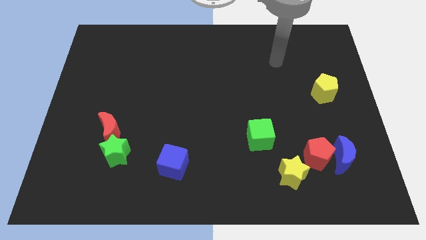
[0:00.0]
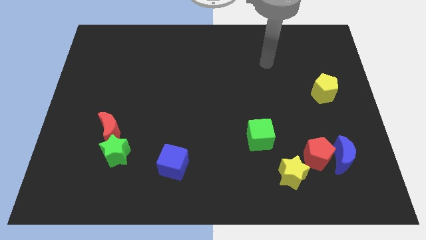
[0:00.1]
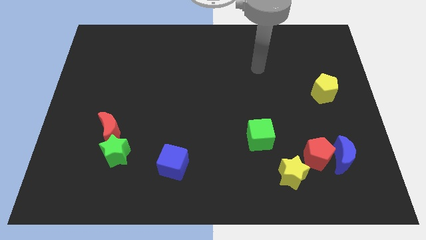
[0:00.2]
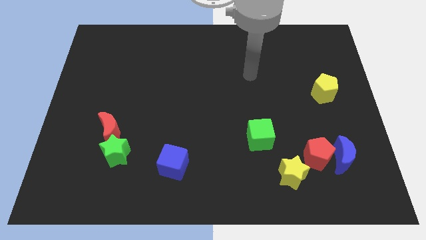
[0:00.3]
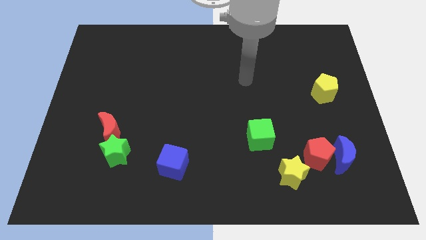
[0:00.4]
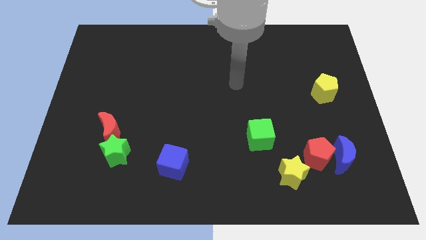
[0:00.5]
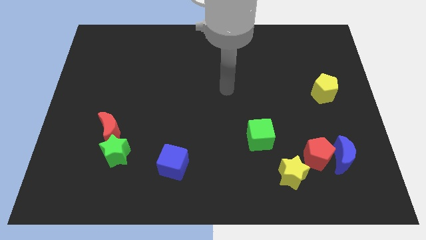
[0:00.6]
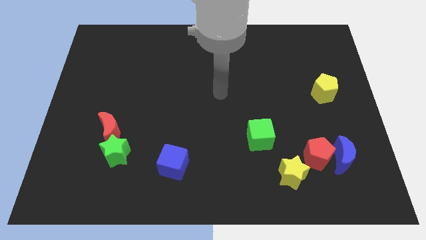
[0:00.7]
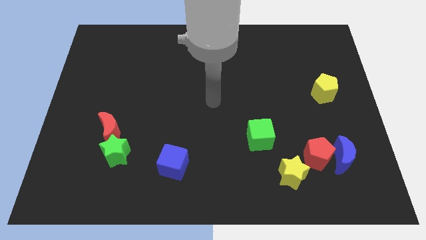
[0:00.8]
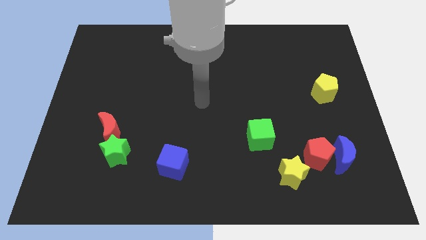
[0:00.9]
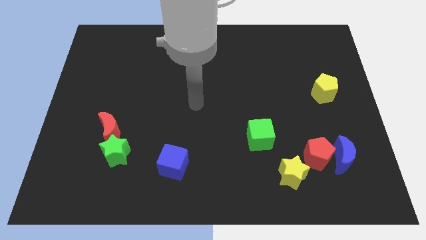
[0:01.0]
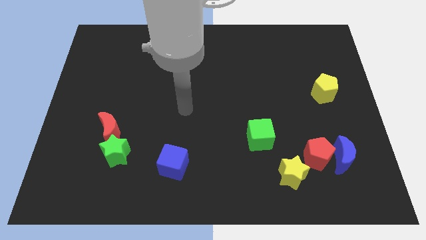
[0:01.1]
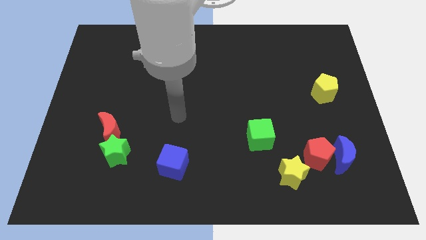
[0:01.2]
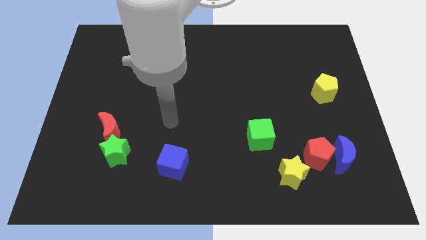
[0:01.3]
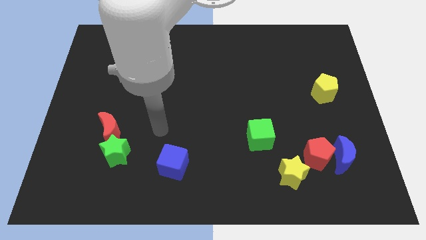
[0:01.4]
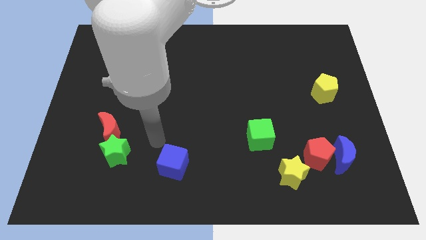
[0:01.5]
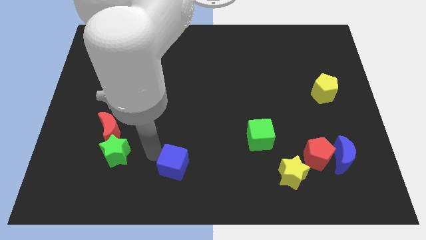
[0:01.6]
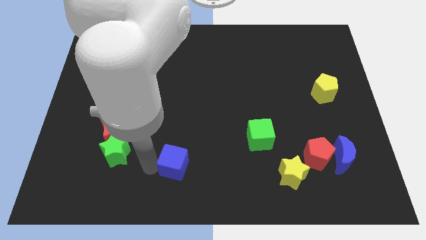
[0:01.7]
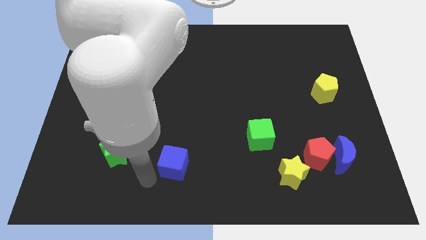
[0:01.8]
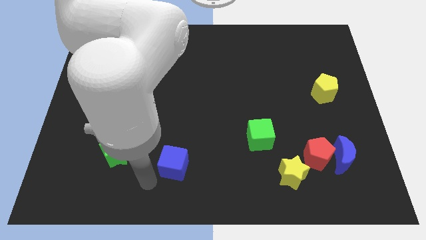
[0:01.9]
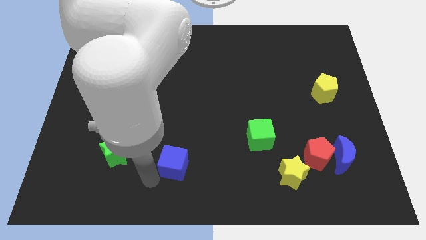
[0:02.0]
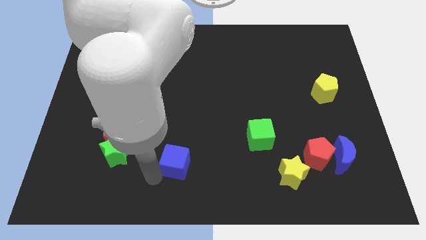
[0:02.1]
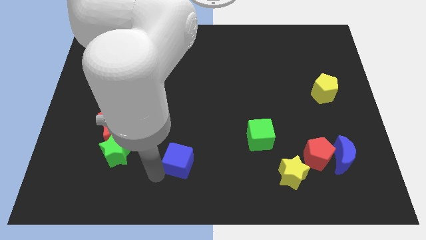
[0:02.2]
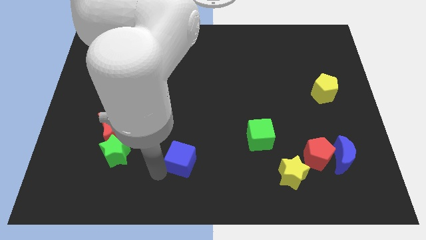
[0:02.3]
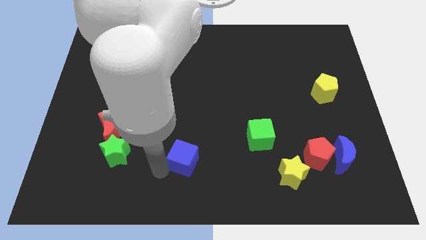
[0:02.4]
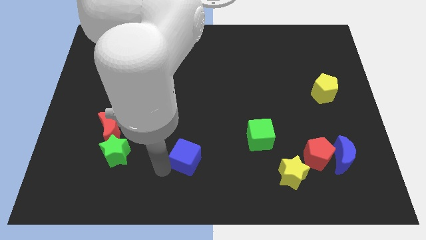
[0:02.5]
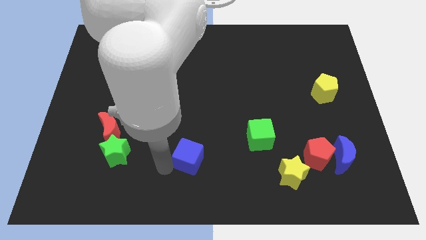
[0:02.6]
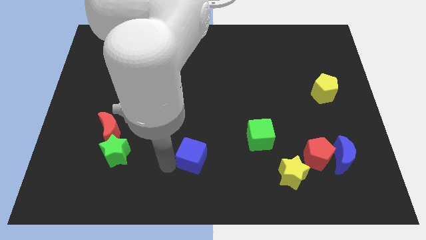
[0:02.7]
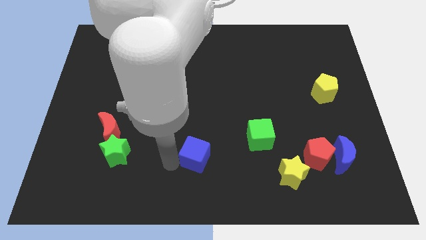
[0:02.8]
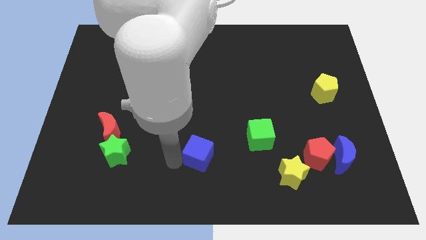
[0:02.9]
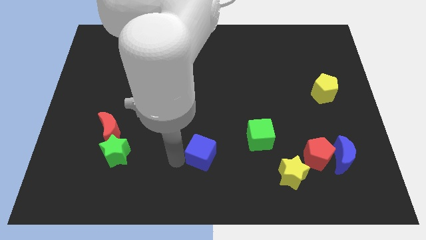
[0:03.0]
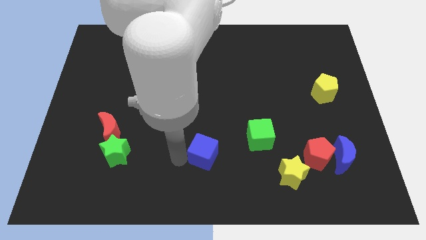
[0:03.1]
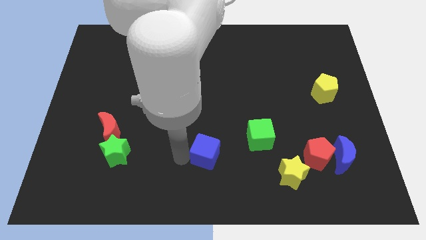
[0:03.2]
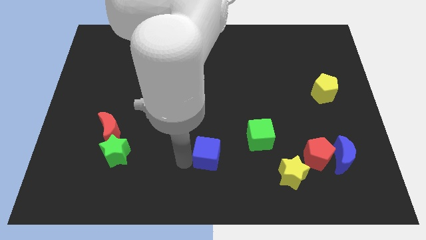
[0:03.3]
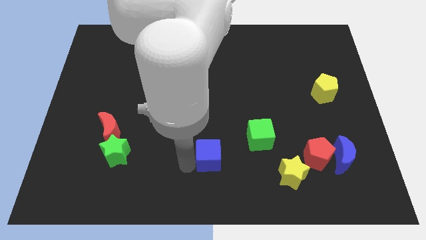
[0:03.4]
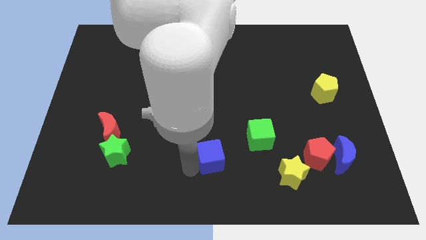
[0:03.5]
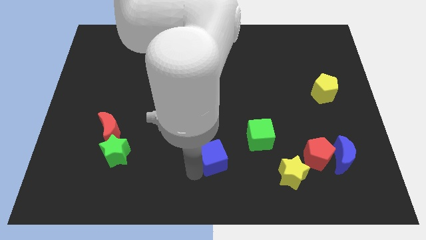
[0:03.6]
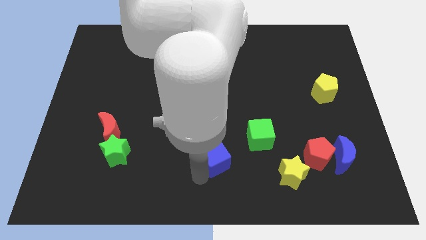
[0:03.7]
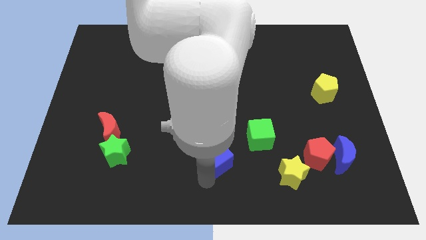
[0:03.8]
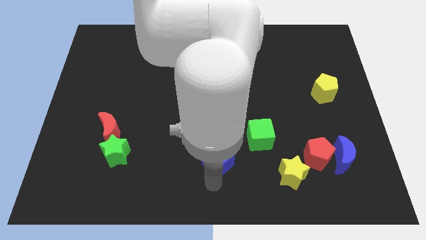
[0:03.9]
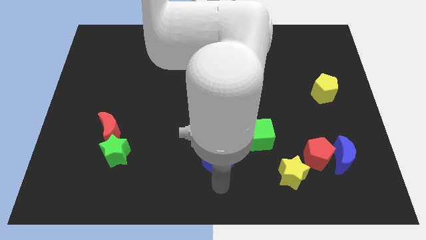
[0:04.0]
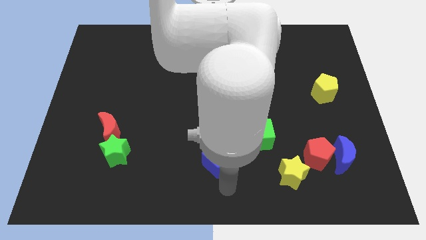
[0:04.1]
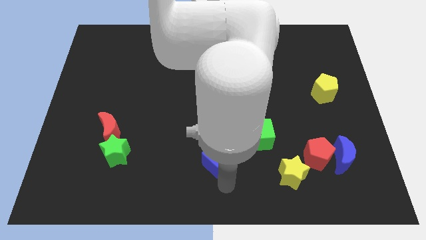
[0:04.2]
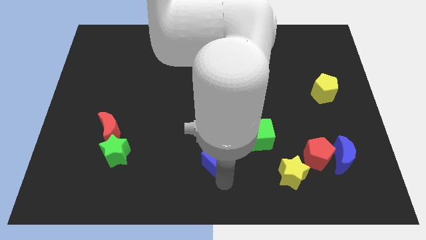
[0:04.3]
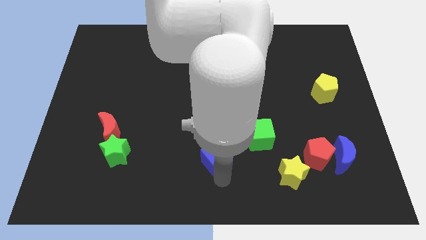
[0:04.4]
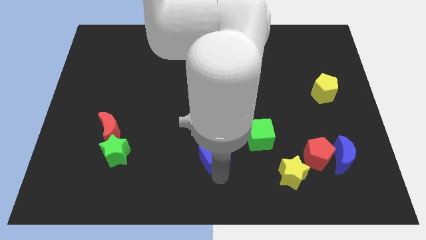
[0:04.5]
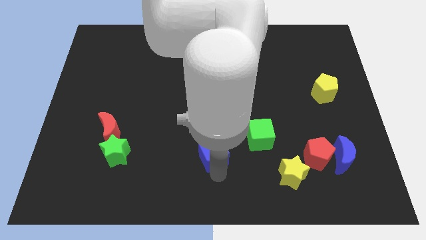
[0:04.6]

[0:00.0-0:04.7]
push the blue cube up and to the right diagonally a little bit

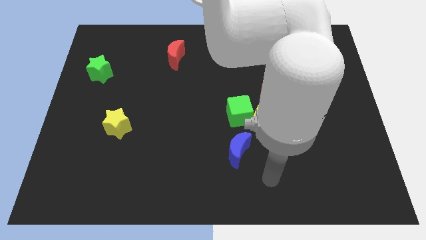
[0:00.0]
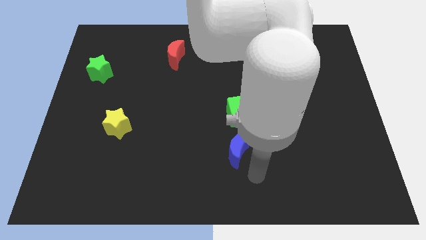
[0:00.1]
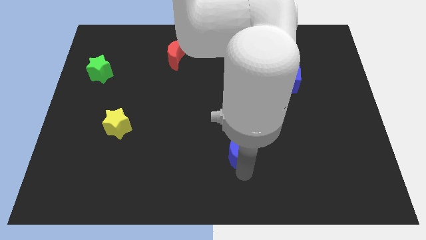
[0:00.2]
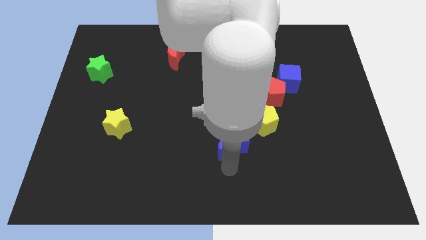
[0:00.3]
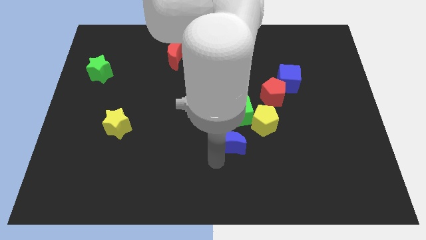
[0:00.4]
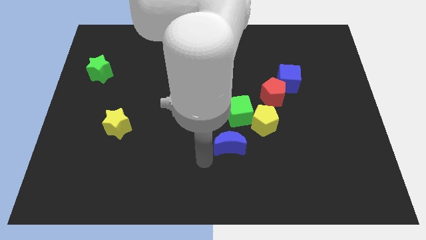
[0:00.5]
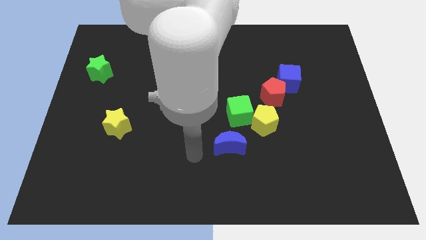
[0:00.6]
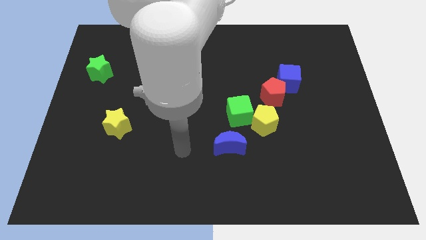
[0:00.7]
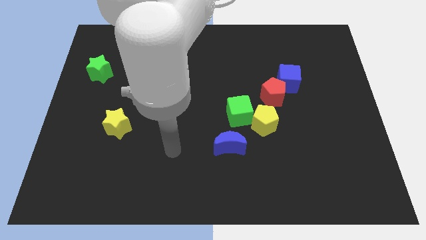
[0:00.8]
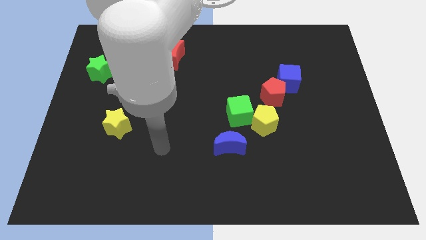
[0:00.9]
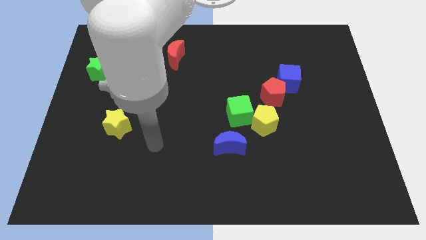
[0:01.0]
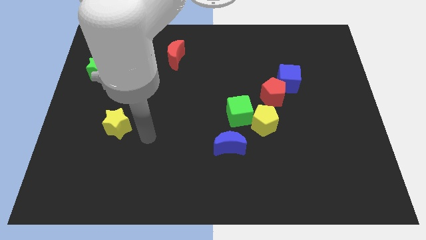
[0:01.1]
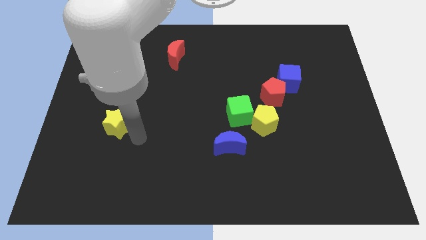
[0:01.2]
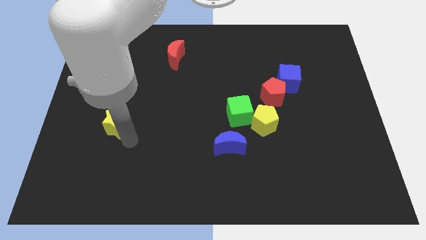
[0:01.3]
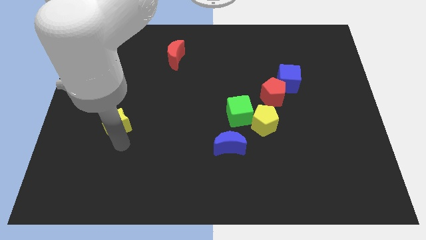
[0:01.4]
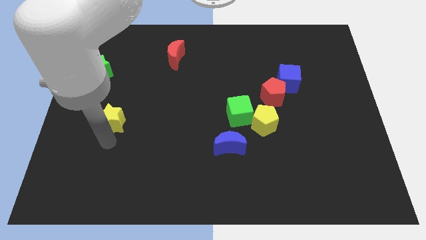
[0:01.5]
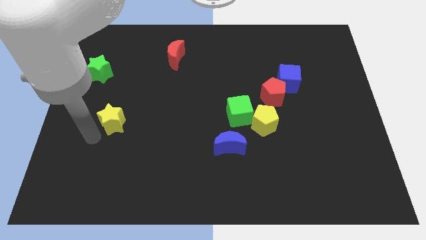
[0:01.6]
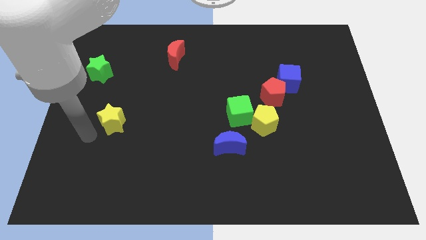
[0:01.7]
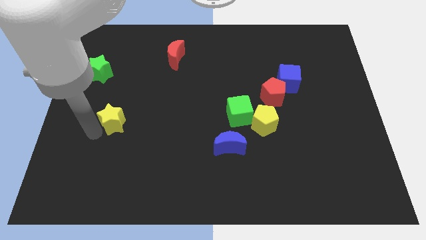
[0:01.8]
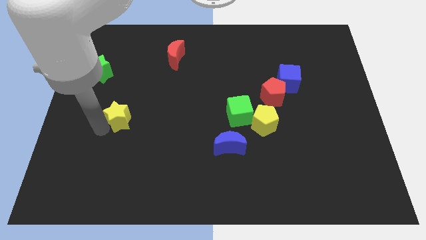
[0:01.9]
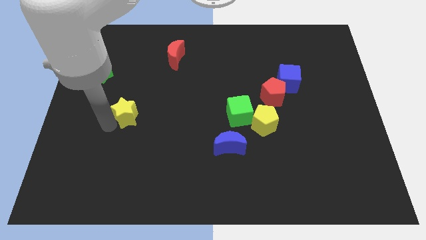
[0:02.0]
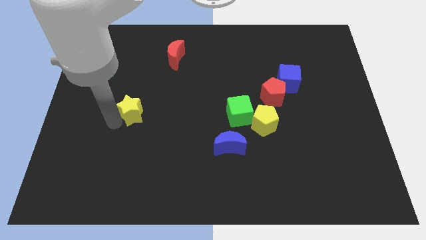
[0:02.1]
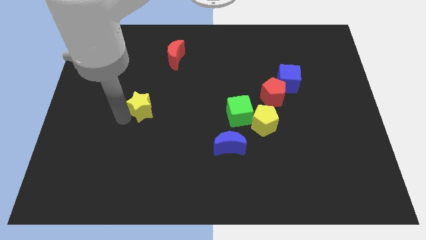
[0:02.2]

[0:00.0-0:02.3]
push the yellow star diagonally up and right somewhat

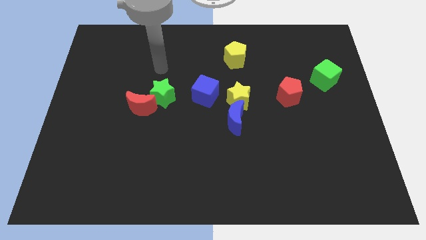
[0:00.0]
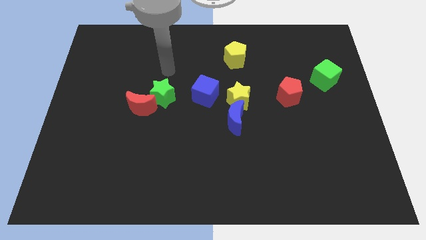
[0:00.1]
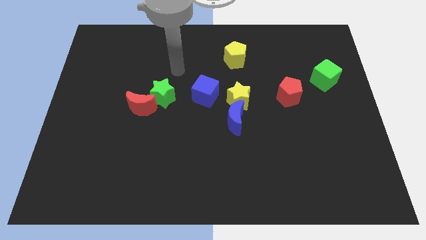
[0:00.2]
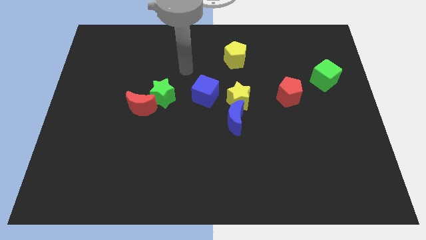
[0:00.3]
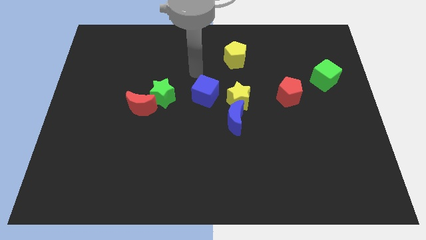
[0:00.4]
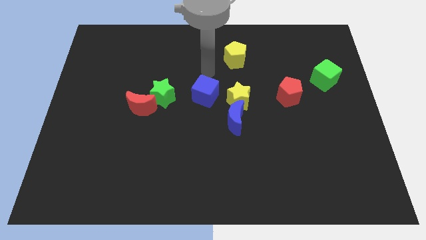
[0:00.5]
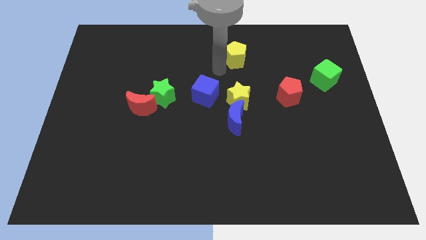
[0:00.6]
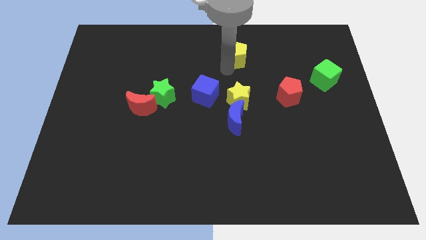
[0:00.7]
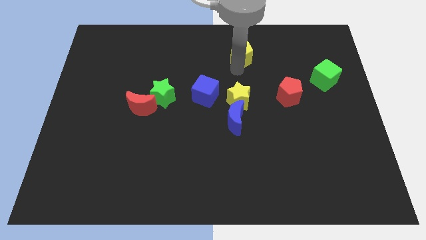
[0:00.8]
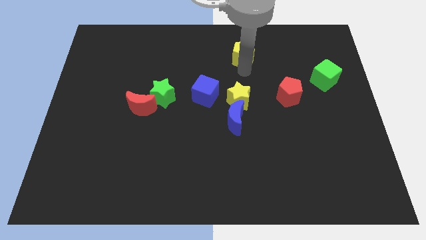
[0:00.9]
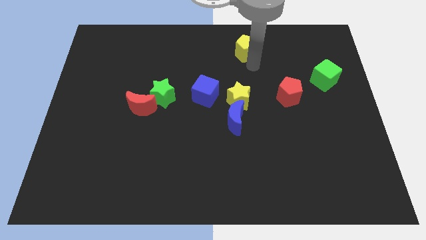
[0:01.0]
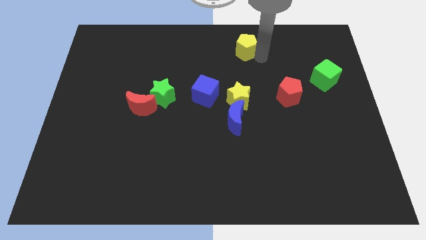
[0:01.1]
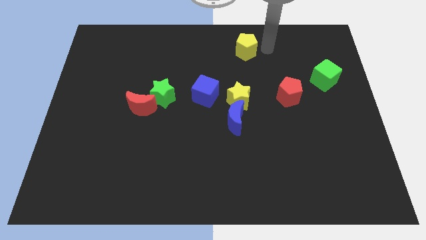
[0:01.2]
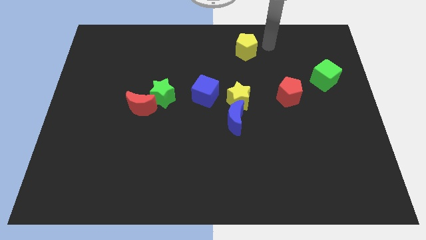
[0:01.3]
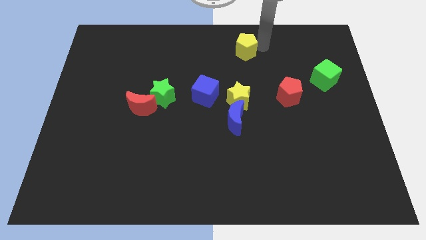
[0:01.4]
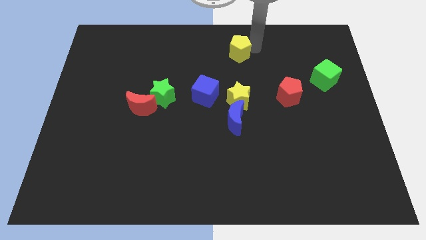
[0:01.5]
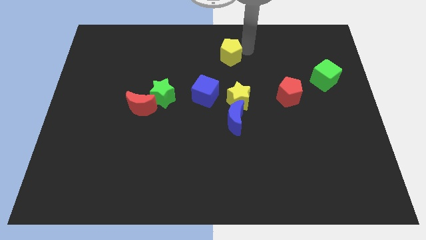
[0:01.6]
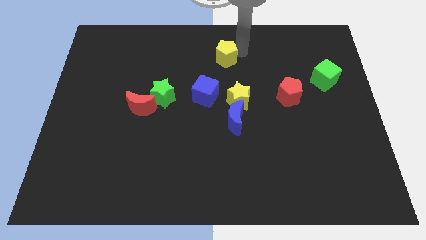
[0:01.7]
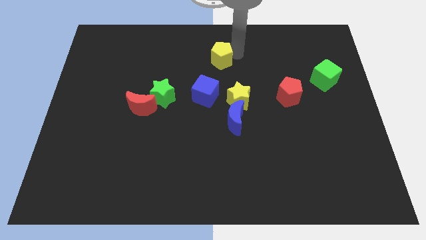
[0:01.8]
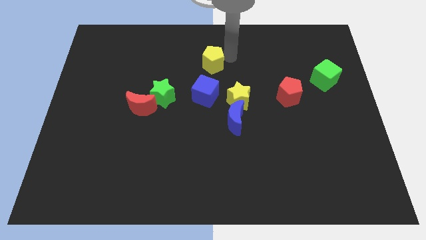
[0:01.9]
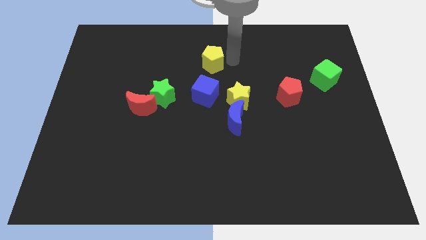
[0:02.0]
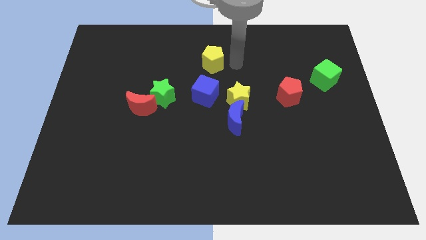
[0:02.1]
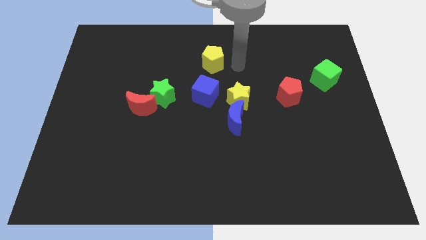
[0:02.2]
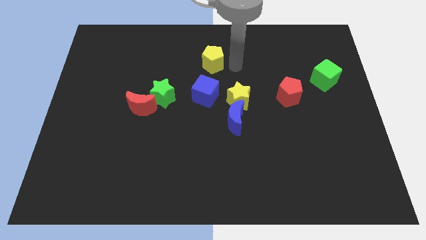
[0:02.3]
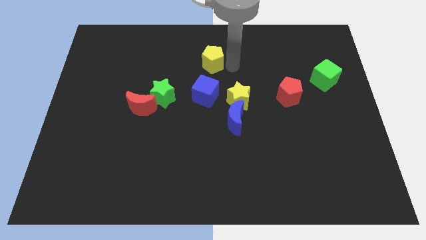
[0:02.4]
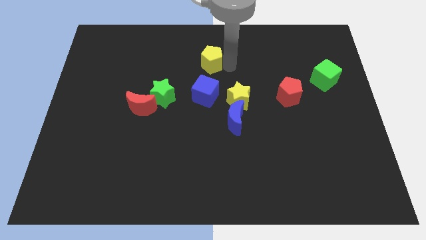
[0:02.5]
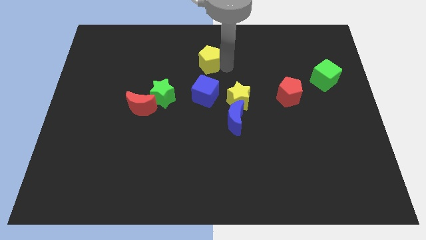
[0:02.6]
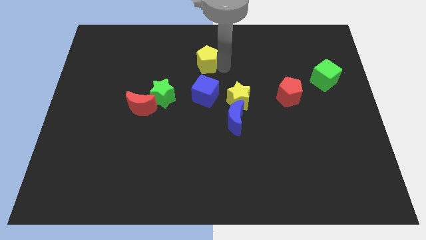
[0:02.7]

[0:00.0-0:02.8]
move the yellow pentagon to the left a bit
